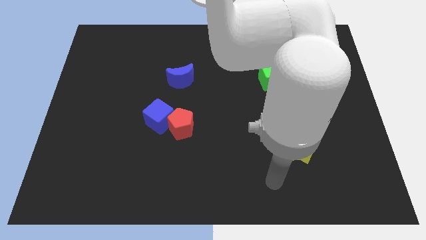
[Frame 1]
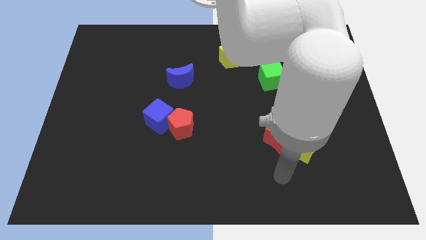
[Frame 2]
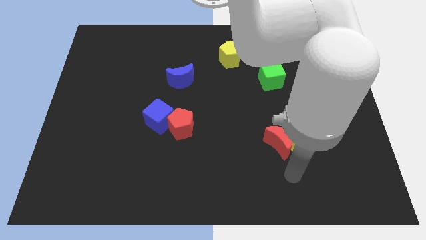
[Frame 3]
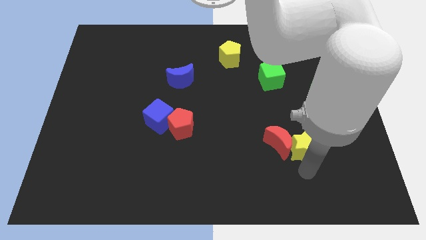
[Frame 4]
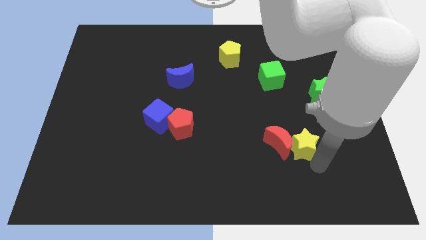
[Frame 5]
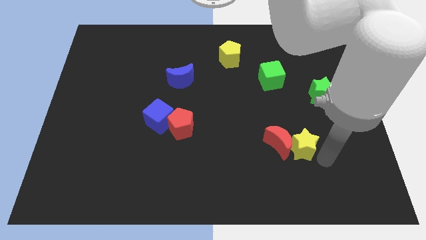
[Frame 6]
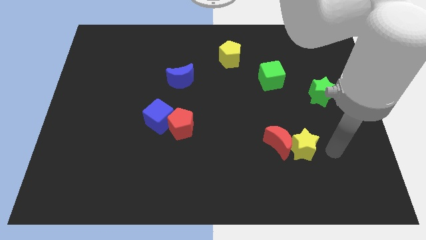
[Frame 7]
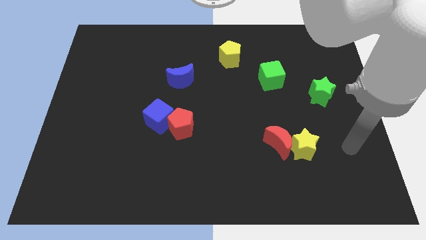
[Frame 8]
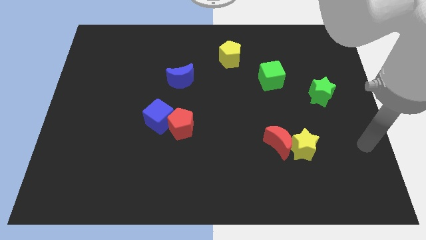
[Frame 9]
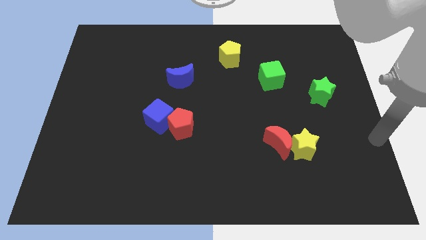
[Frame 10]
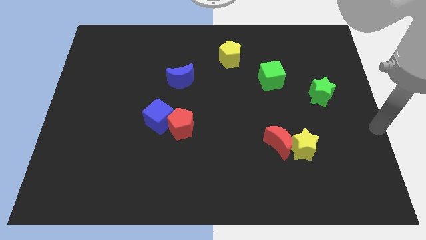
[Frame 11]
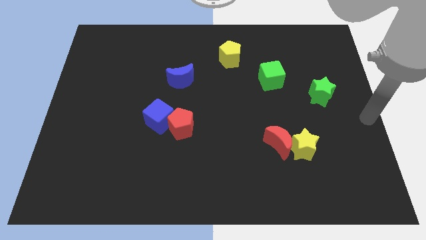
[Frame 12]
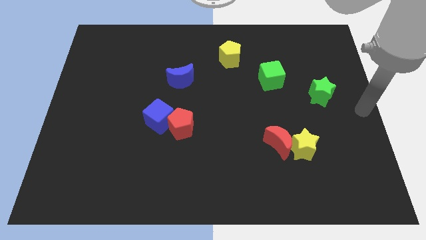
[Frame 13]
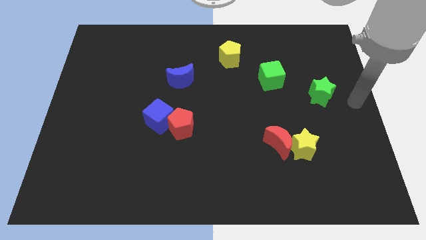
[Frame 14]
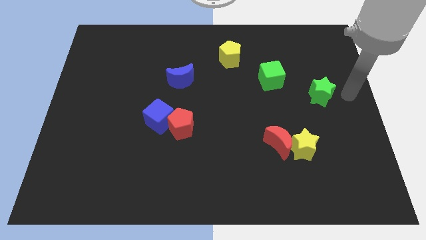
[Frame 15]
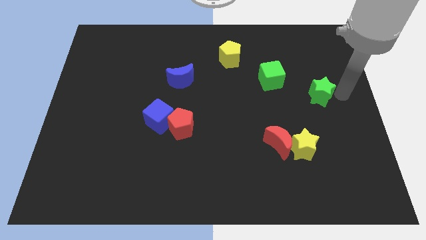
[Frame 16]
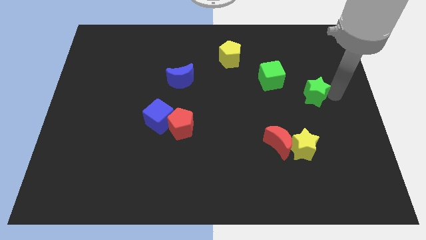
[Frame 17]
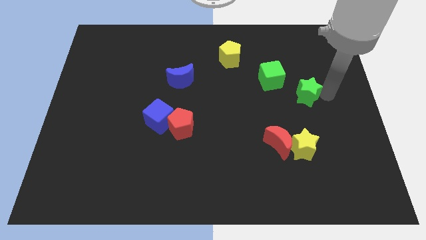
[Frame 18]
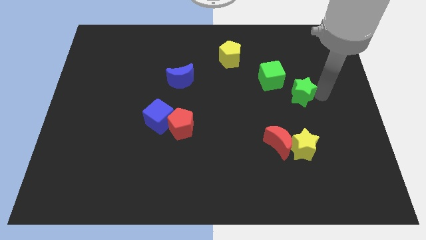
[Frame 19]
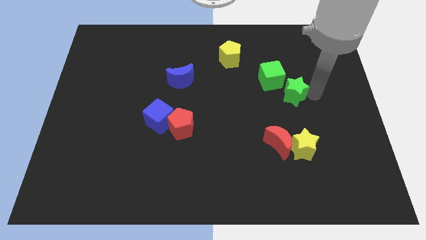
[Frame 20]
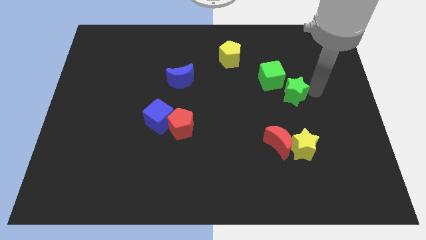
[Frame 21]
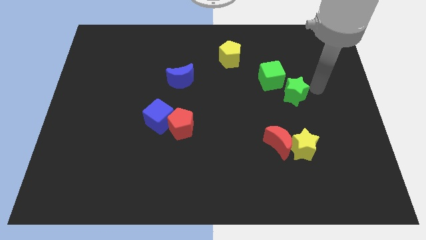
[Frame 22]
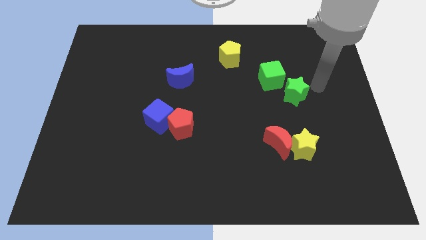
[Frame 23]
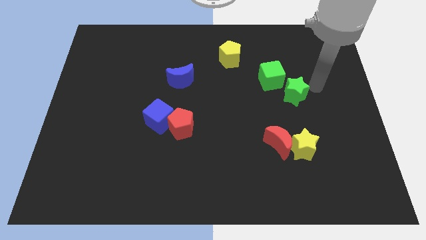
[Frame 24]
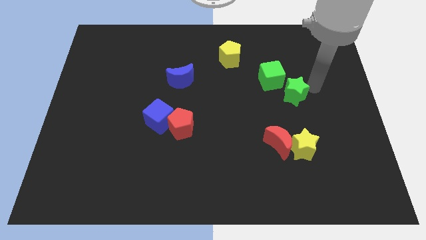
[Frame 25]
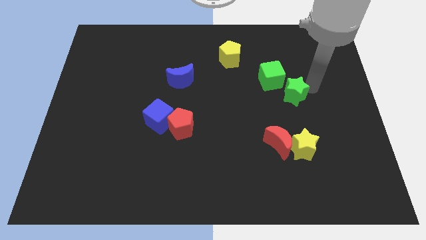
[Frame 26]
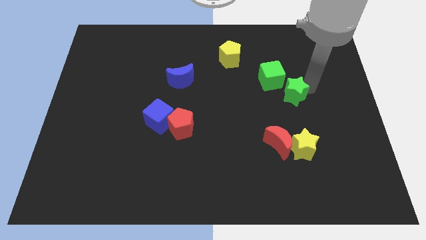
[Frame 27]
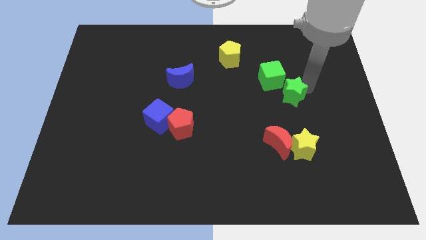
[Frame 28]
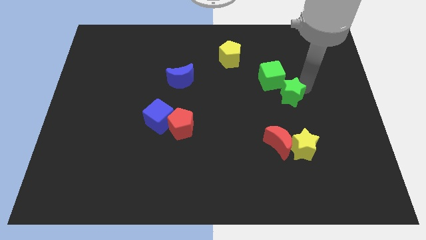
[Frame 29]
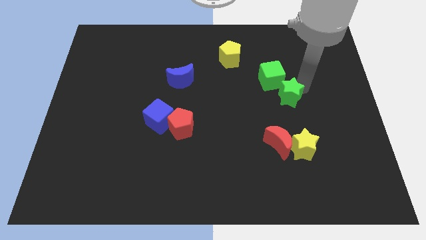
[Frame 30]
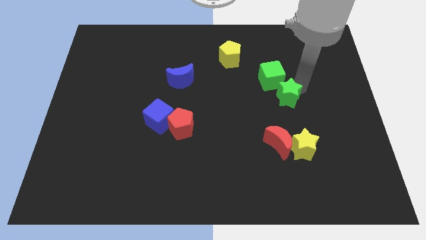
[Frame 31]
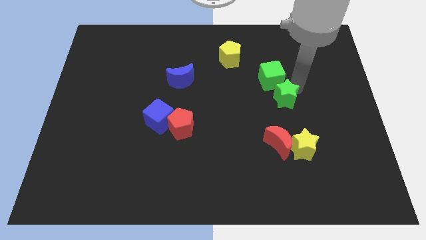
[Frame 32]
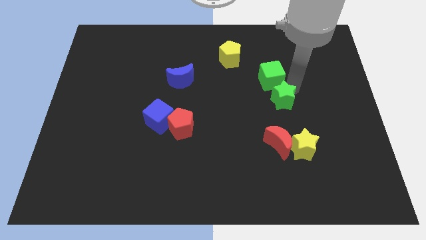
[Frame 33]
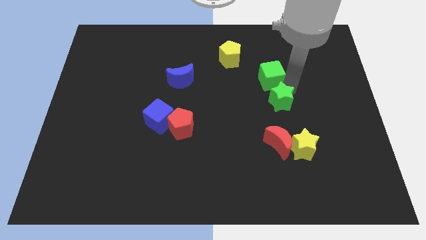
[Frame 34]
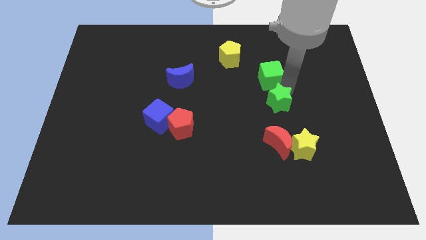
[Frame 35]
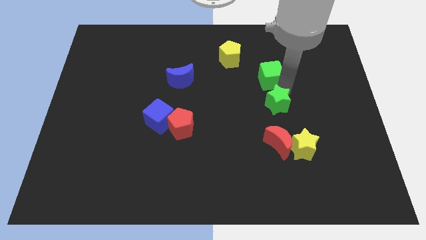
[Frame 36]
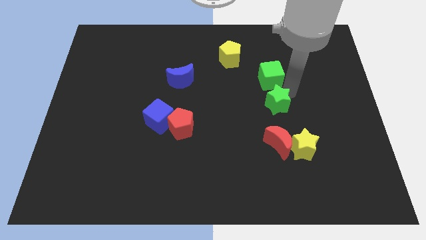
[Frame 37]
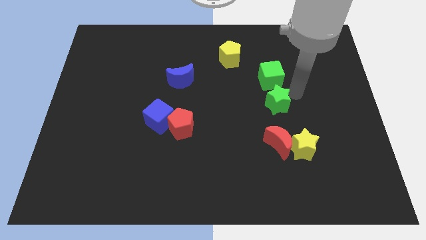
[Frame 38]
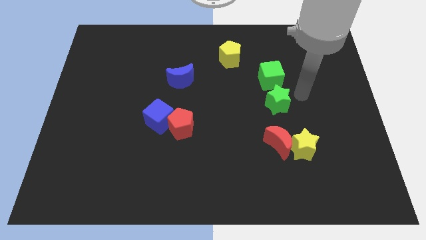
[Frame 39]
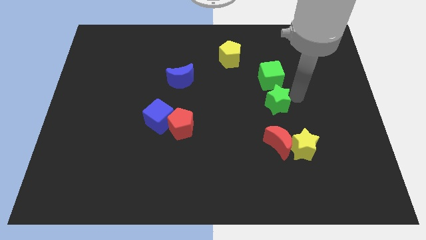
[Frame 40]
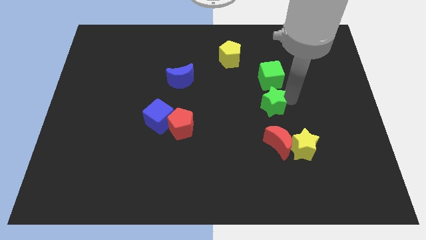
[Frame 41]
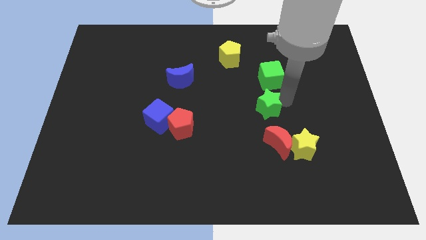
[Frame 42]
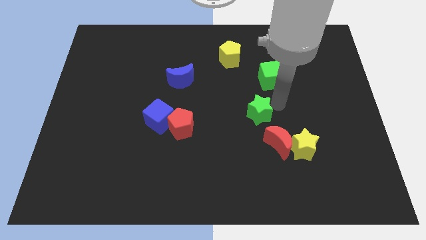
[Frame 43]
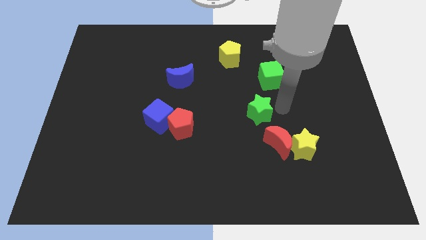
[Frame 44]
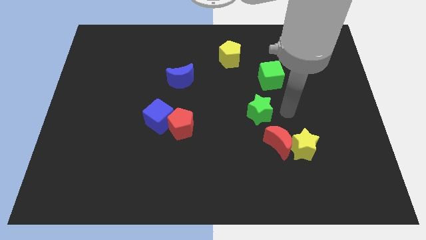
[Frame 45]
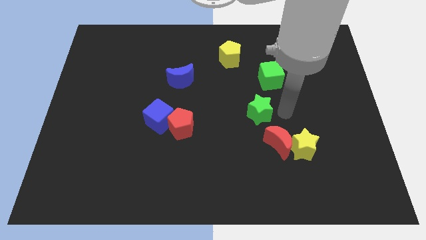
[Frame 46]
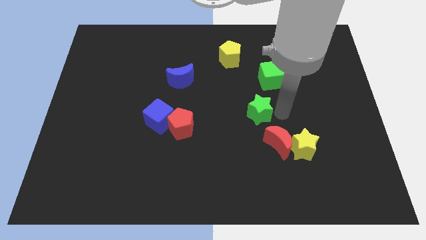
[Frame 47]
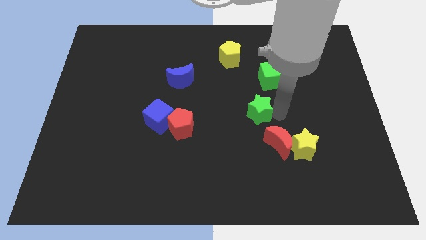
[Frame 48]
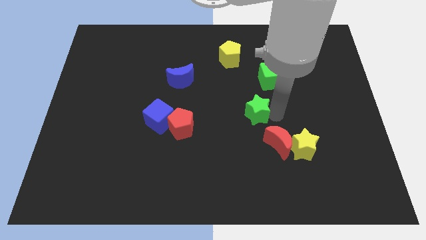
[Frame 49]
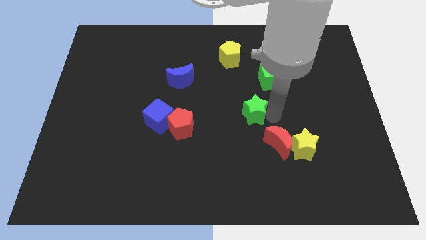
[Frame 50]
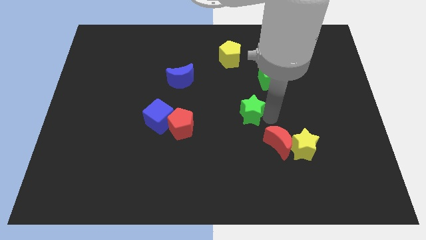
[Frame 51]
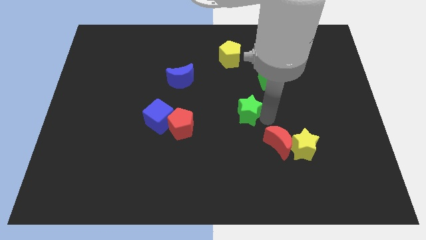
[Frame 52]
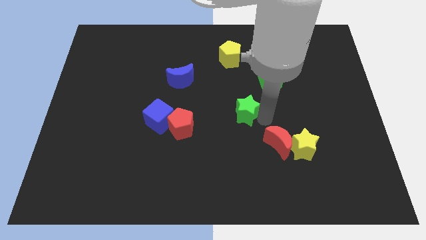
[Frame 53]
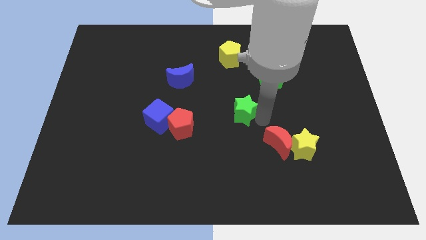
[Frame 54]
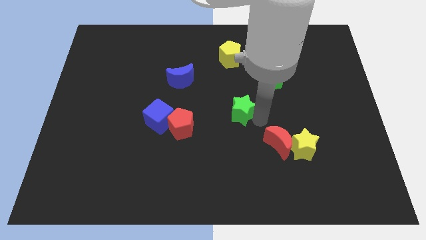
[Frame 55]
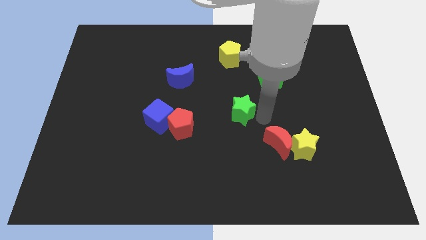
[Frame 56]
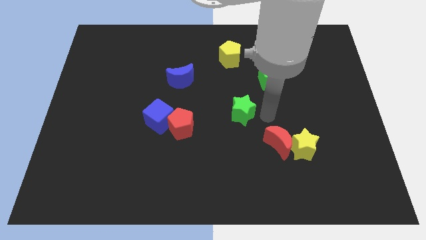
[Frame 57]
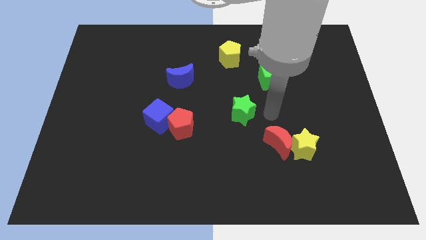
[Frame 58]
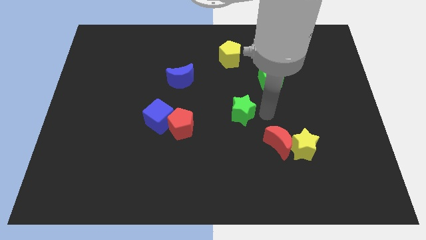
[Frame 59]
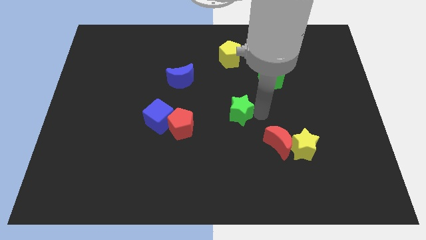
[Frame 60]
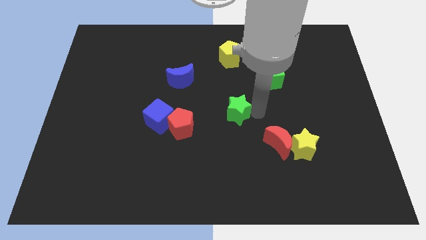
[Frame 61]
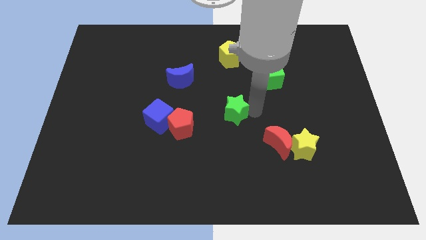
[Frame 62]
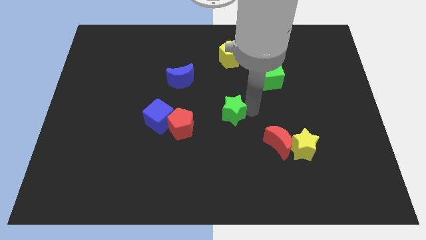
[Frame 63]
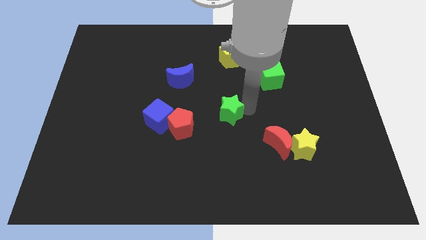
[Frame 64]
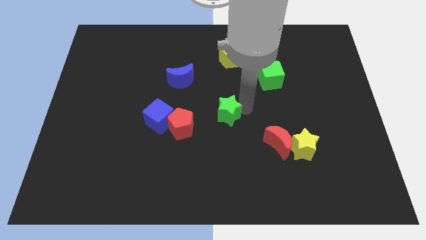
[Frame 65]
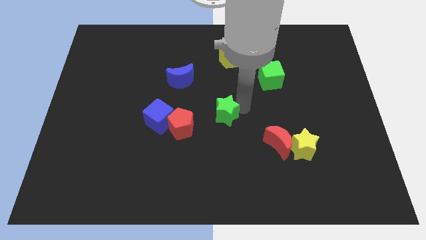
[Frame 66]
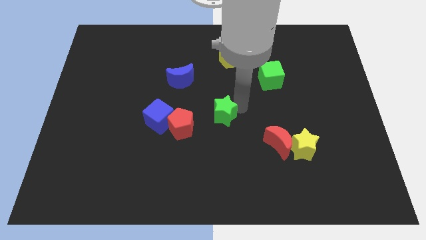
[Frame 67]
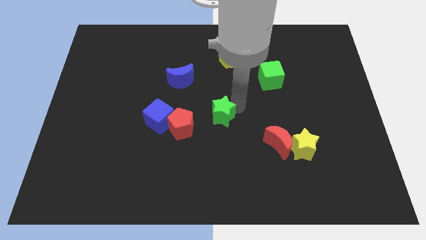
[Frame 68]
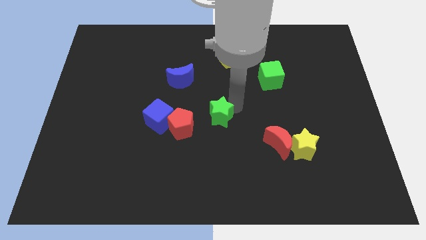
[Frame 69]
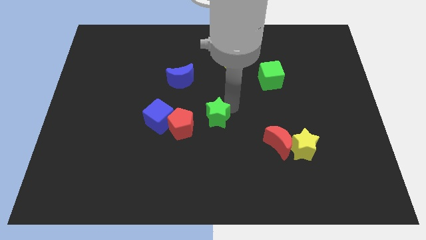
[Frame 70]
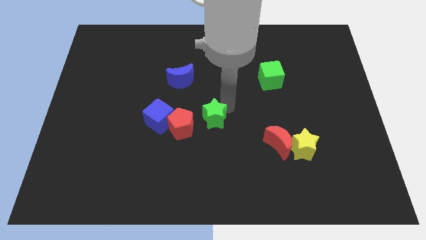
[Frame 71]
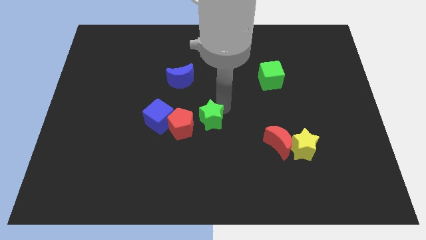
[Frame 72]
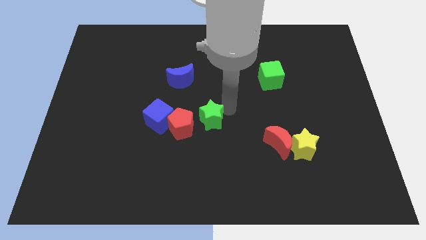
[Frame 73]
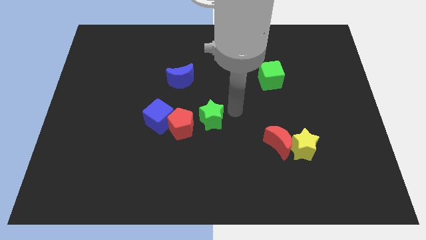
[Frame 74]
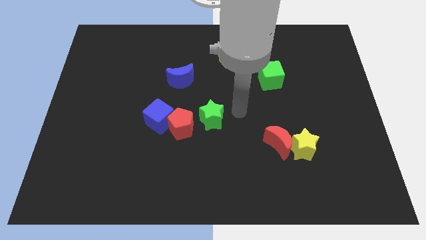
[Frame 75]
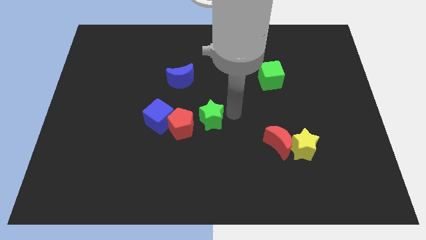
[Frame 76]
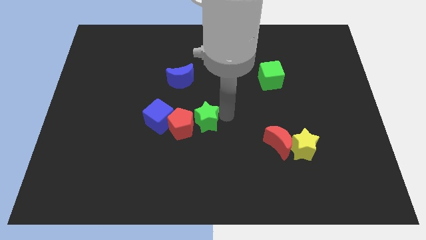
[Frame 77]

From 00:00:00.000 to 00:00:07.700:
move the green star to the red pentagon
